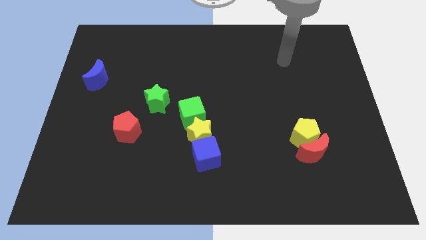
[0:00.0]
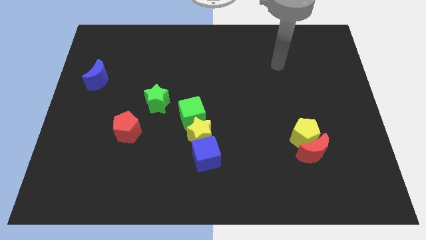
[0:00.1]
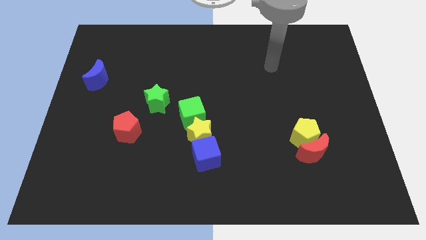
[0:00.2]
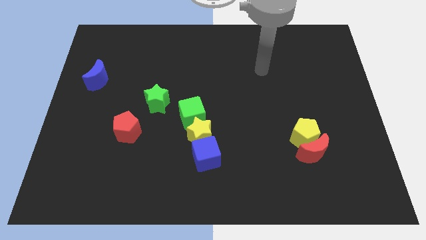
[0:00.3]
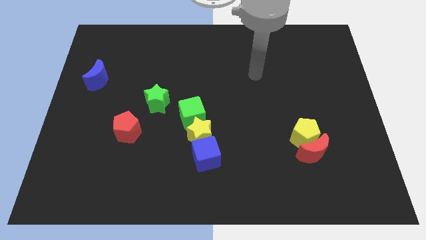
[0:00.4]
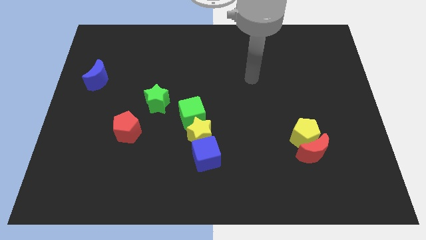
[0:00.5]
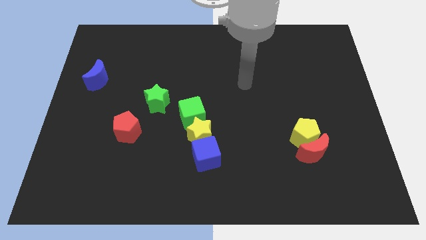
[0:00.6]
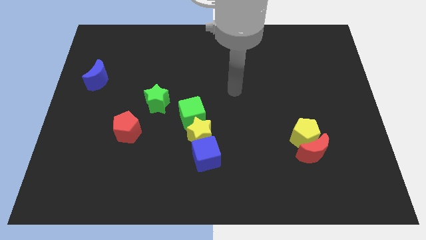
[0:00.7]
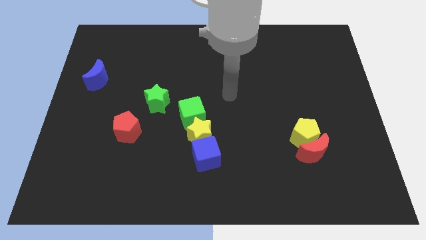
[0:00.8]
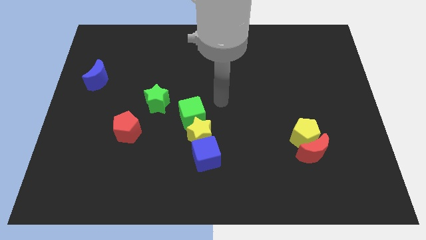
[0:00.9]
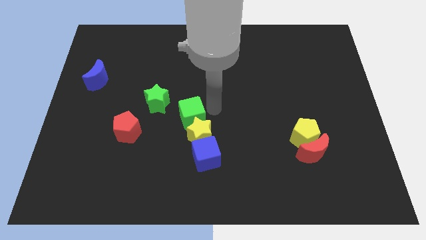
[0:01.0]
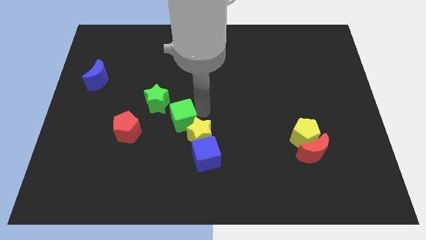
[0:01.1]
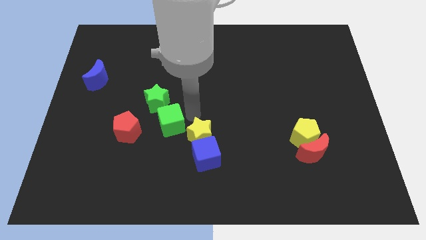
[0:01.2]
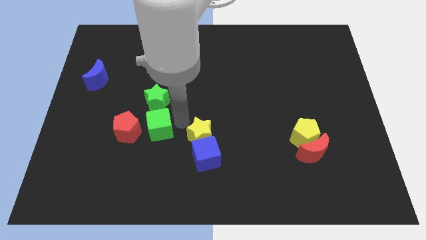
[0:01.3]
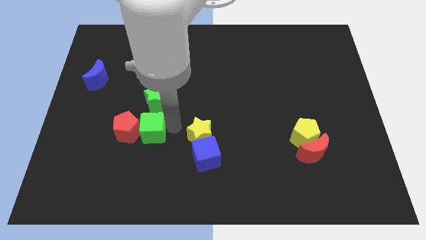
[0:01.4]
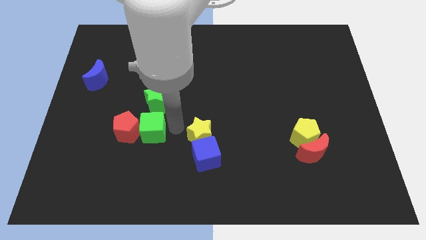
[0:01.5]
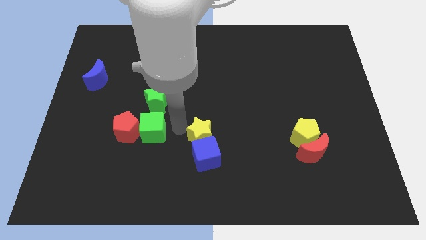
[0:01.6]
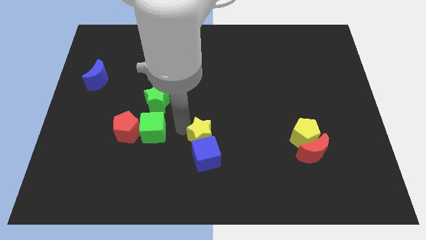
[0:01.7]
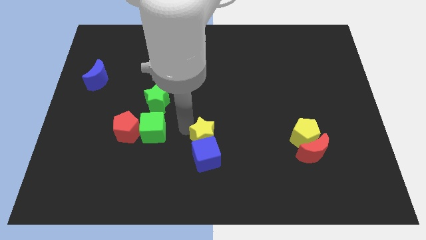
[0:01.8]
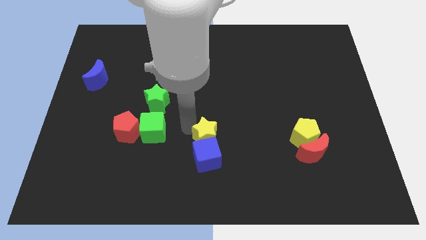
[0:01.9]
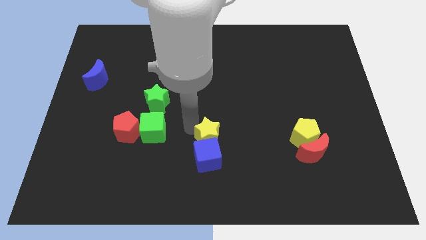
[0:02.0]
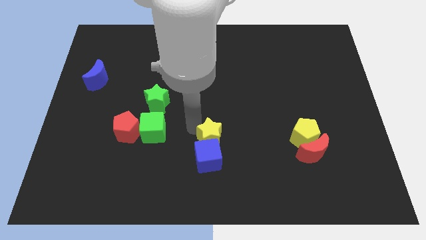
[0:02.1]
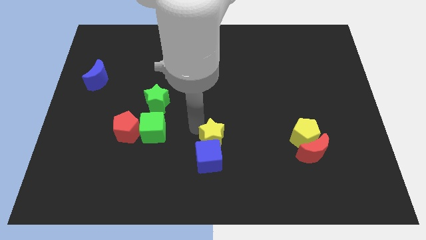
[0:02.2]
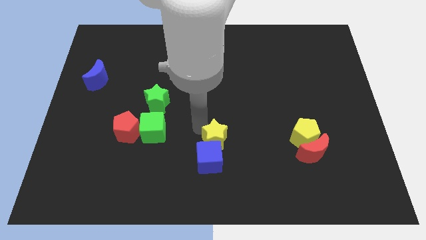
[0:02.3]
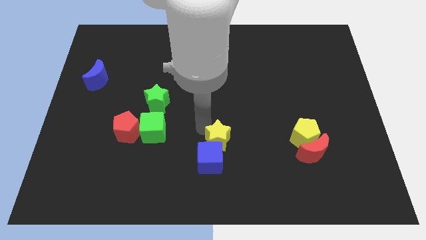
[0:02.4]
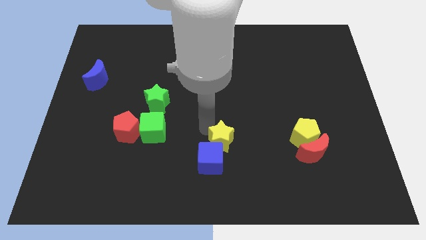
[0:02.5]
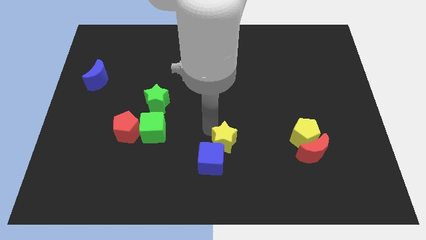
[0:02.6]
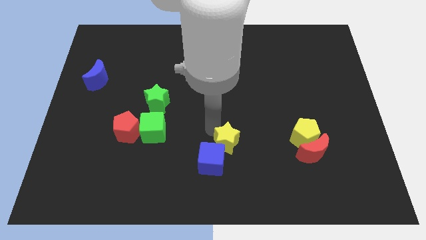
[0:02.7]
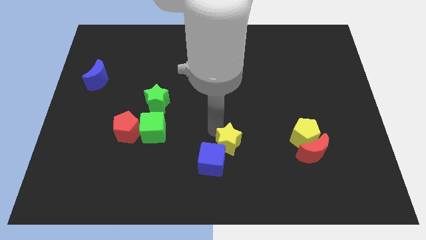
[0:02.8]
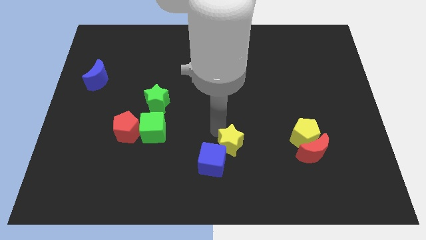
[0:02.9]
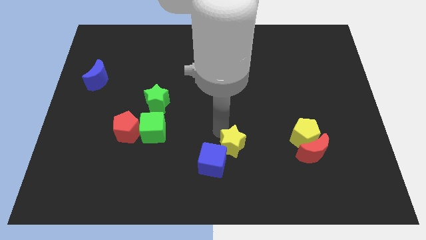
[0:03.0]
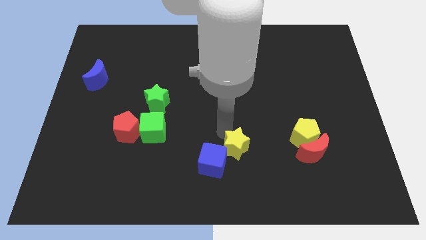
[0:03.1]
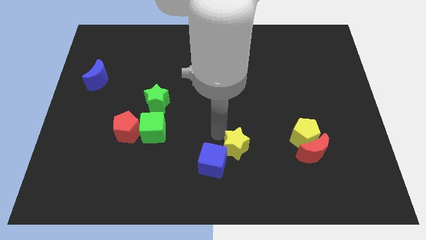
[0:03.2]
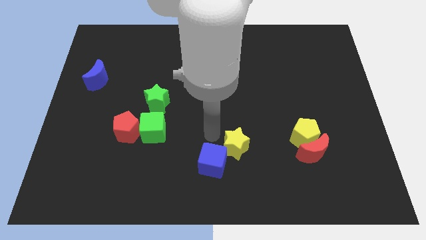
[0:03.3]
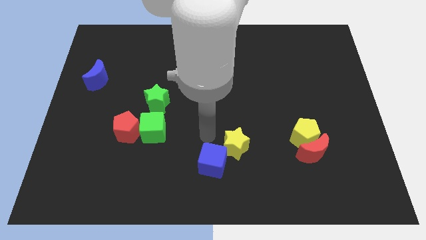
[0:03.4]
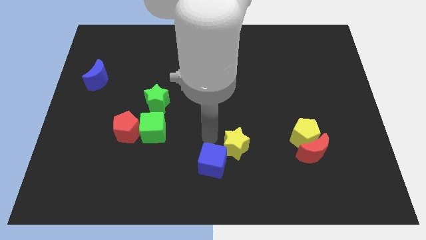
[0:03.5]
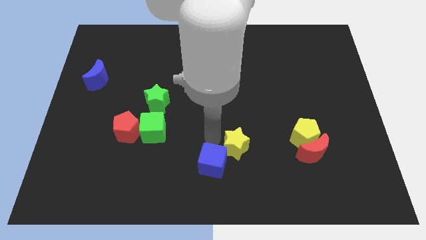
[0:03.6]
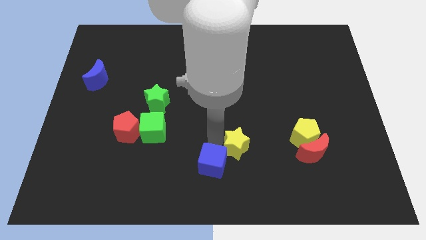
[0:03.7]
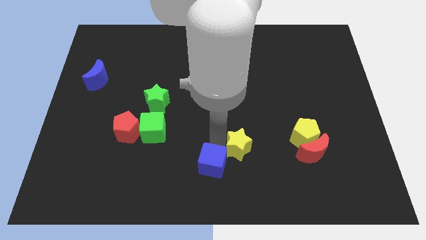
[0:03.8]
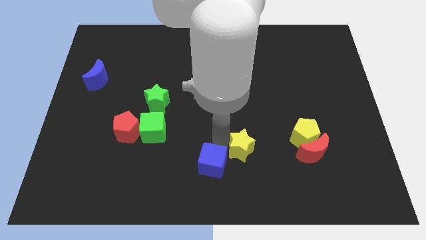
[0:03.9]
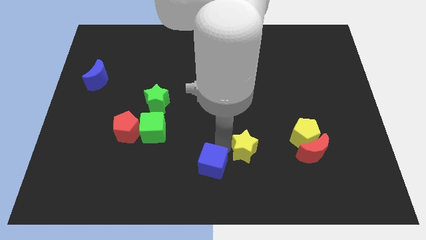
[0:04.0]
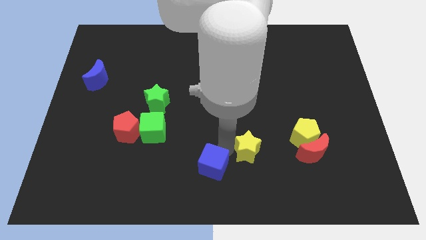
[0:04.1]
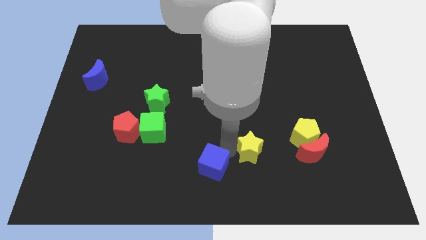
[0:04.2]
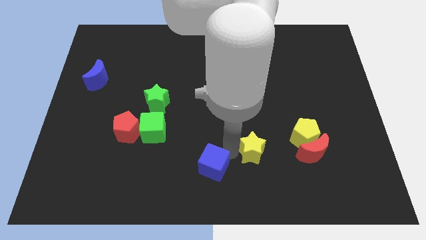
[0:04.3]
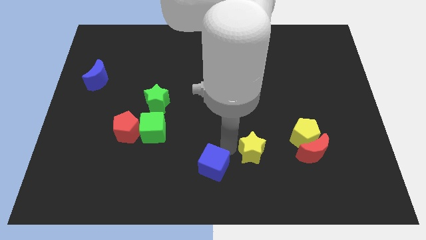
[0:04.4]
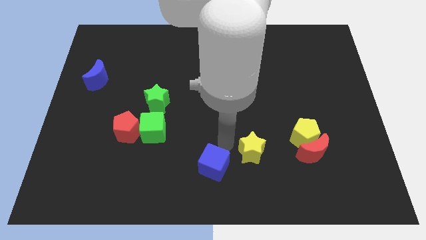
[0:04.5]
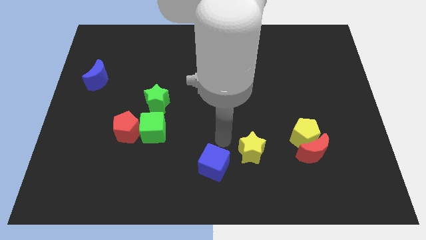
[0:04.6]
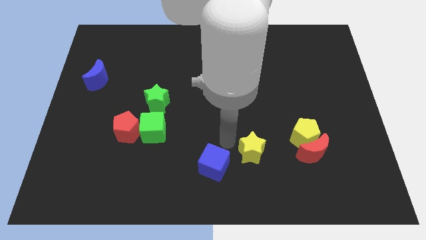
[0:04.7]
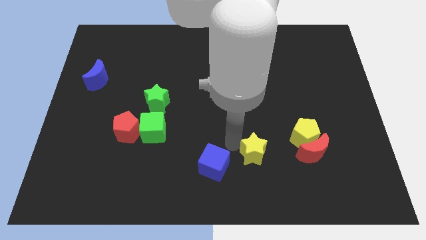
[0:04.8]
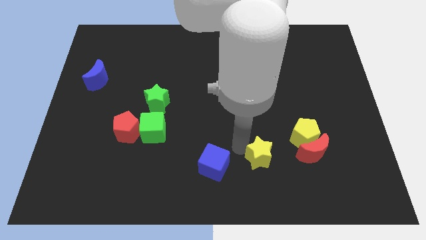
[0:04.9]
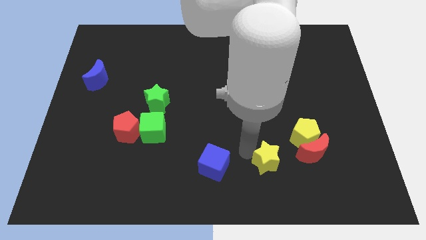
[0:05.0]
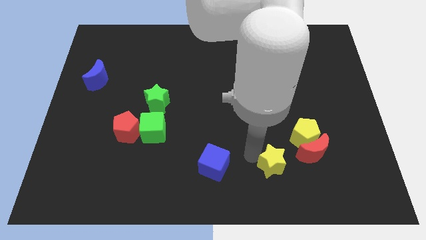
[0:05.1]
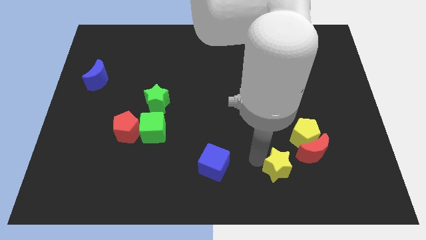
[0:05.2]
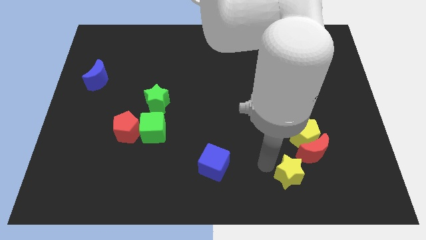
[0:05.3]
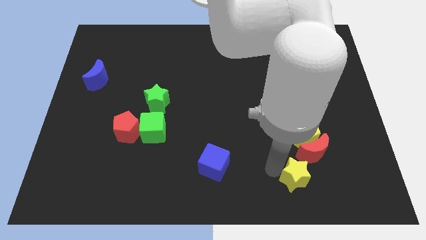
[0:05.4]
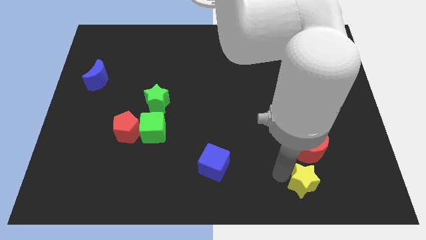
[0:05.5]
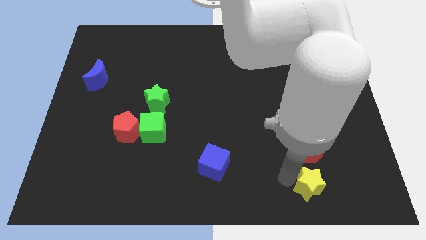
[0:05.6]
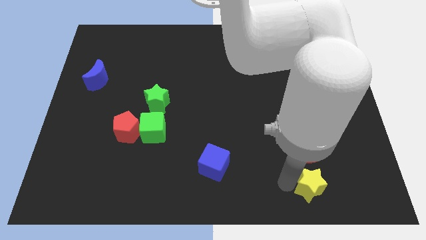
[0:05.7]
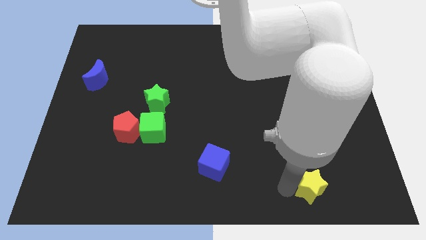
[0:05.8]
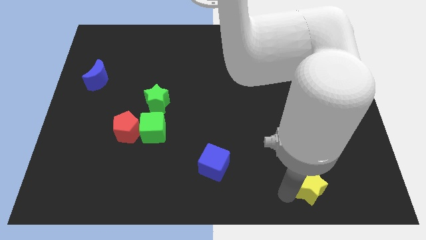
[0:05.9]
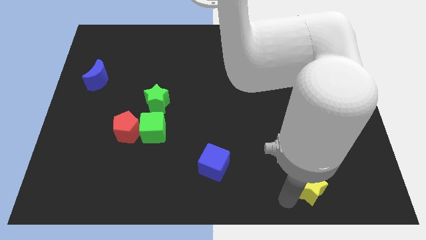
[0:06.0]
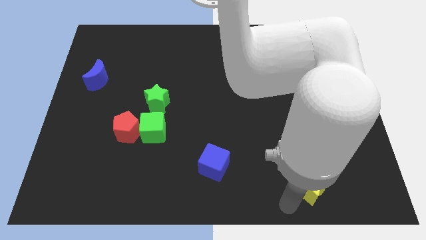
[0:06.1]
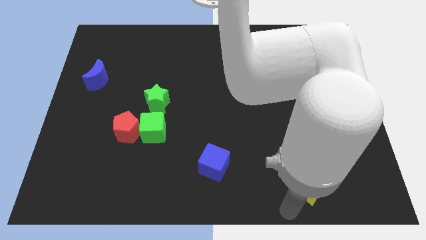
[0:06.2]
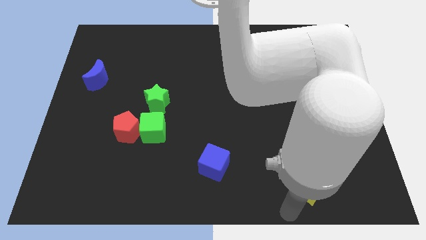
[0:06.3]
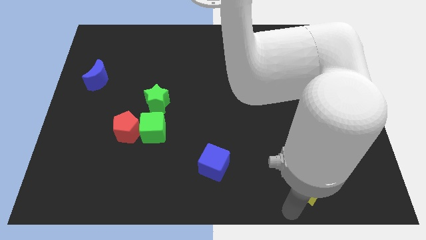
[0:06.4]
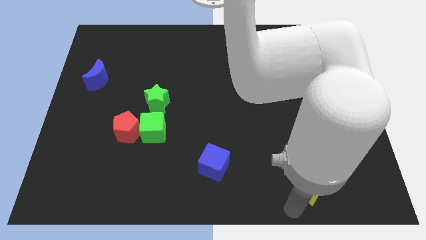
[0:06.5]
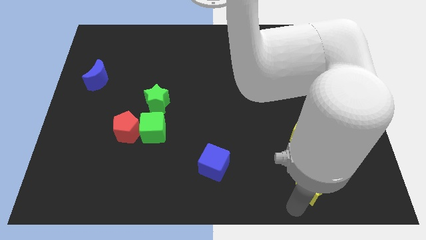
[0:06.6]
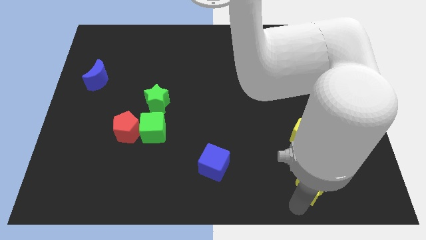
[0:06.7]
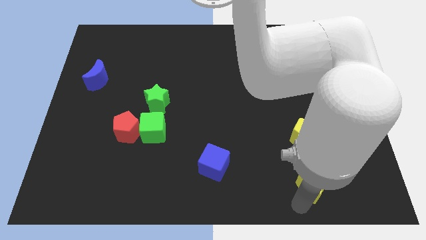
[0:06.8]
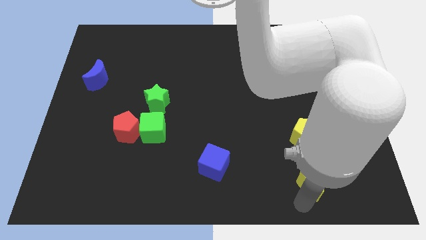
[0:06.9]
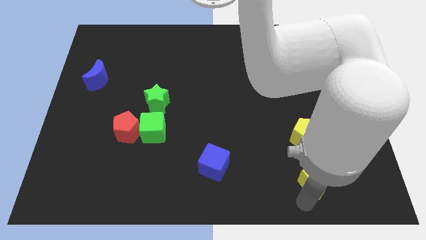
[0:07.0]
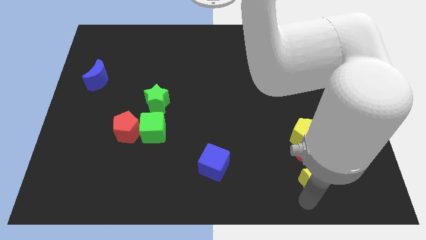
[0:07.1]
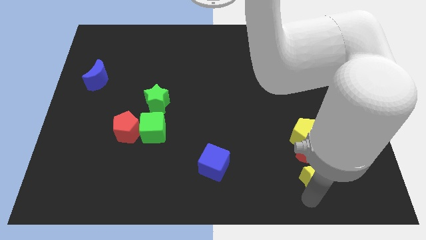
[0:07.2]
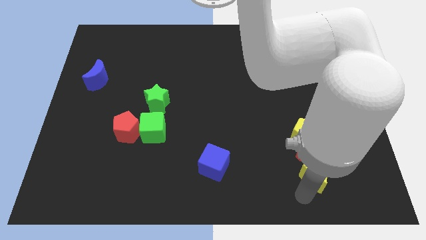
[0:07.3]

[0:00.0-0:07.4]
push the yellow star to the bottom right of the red moon
